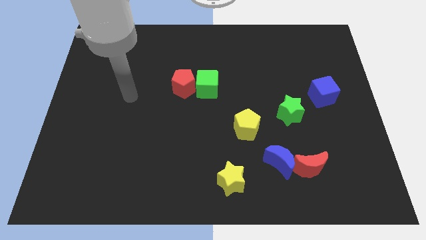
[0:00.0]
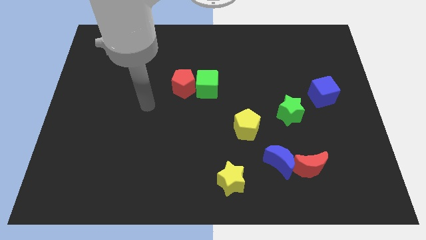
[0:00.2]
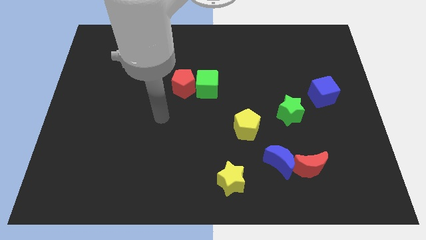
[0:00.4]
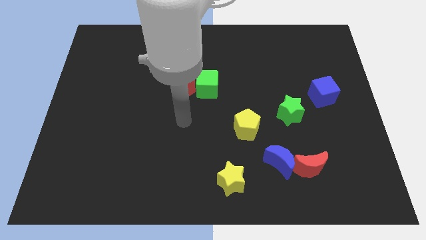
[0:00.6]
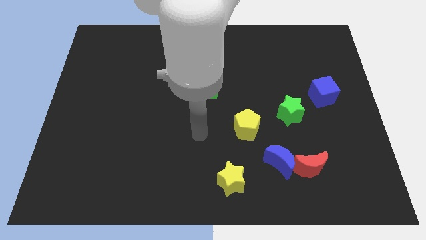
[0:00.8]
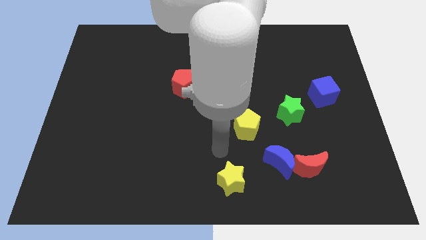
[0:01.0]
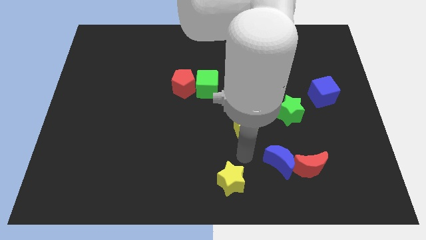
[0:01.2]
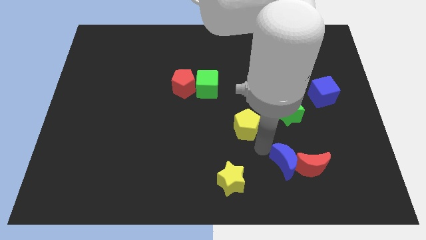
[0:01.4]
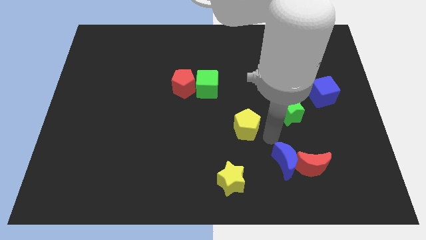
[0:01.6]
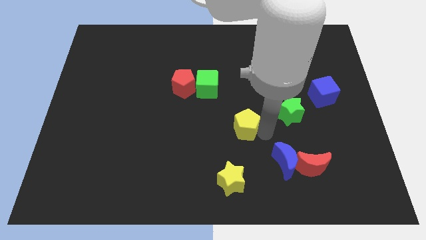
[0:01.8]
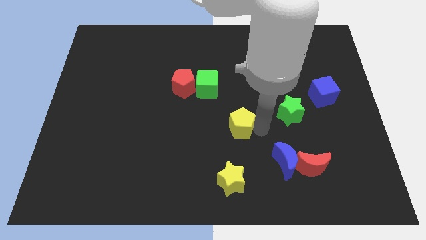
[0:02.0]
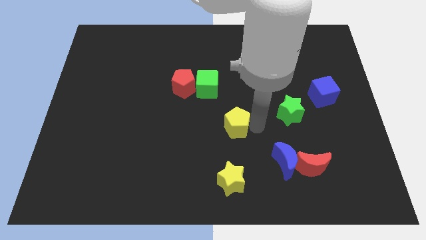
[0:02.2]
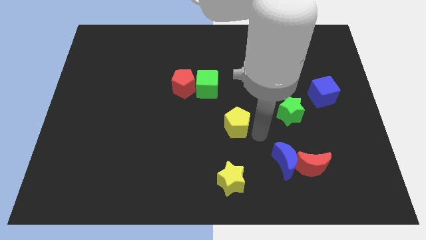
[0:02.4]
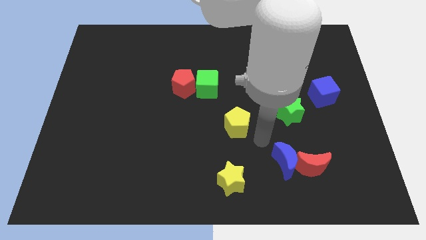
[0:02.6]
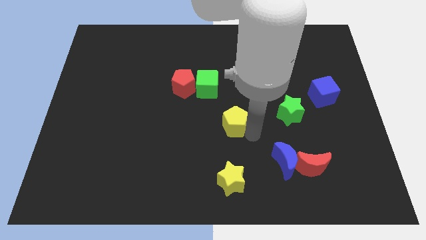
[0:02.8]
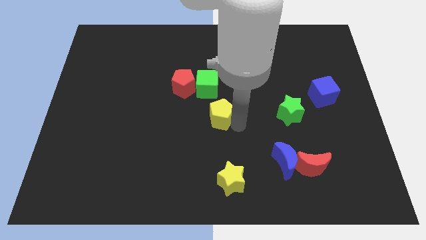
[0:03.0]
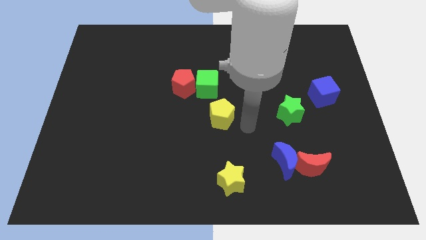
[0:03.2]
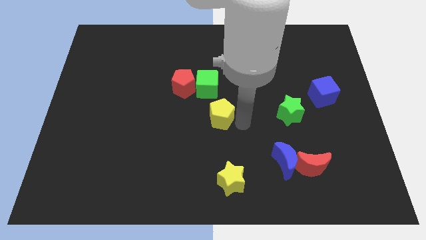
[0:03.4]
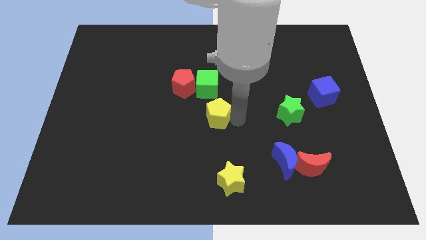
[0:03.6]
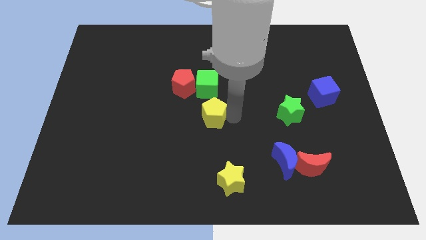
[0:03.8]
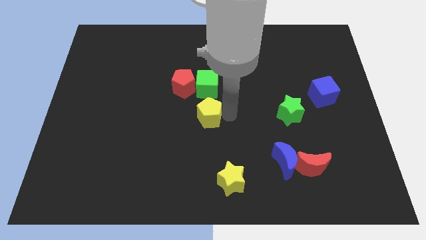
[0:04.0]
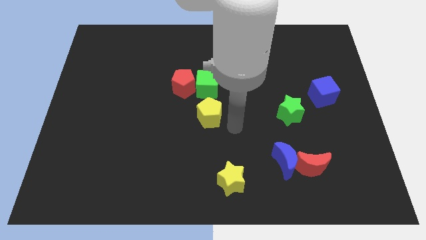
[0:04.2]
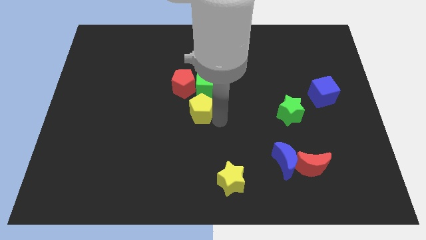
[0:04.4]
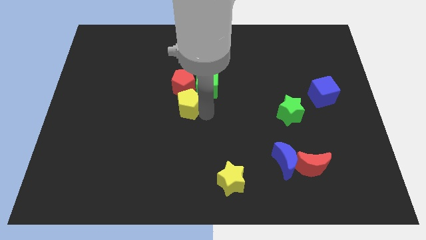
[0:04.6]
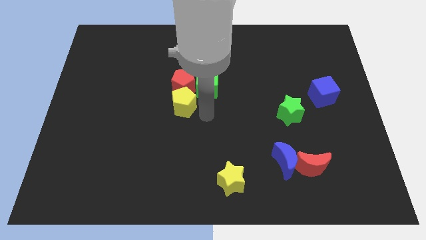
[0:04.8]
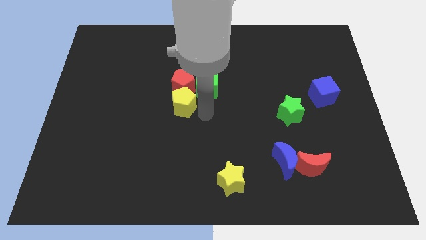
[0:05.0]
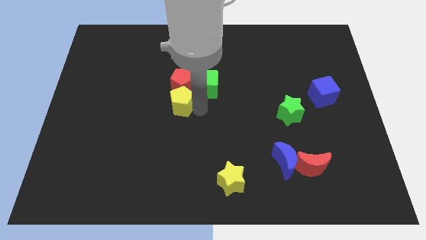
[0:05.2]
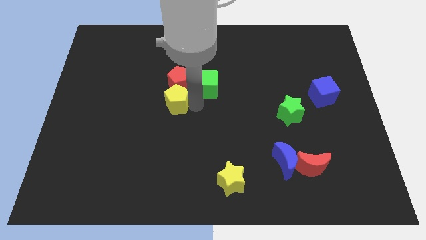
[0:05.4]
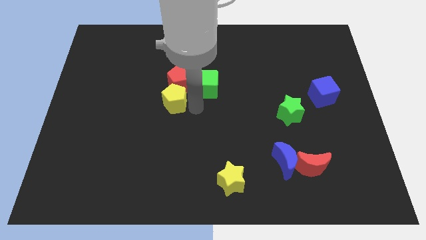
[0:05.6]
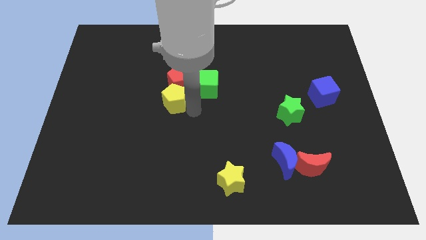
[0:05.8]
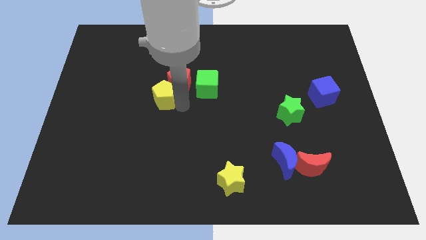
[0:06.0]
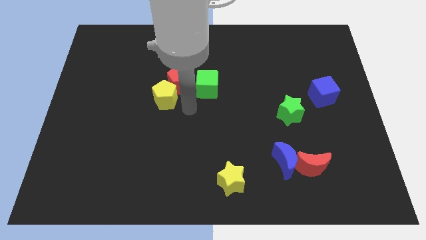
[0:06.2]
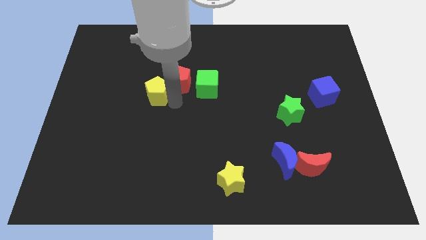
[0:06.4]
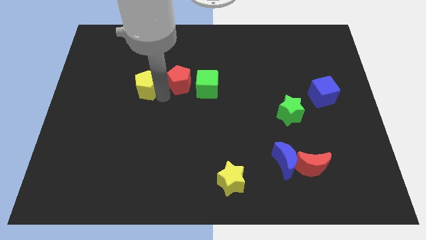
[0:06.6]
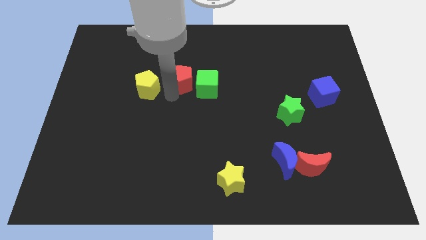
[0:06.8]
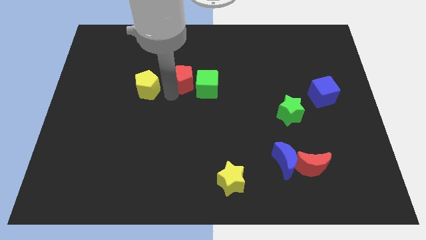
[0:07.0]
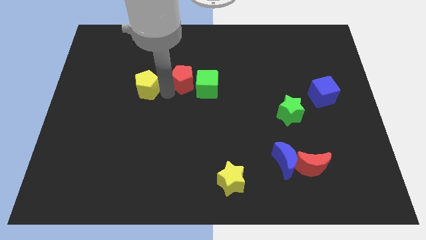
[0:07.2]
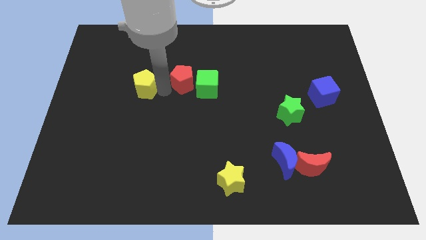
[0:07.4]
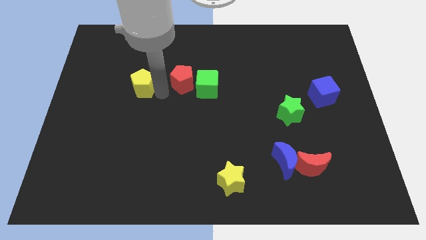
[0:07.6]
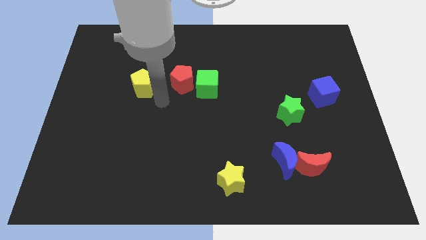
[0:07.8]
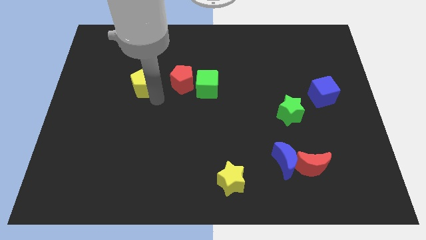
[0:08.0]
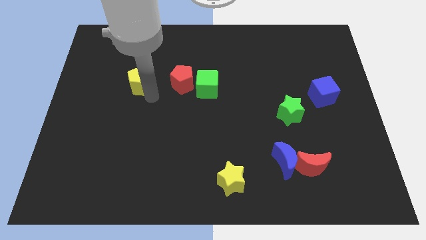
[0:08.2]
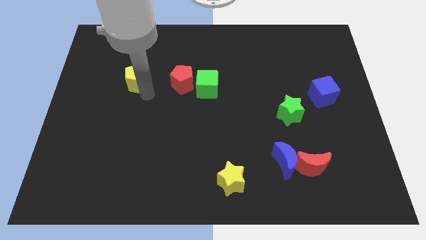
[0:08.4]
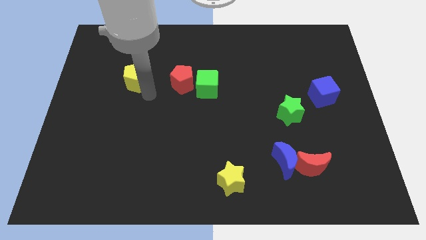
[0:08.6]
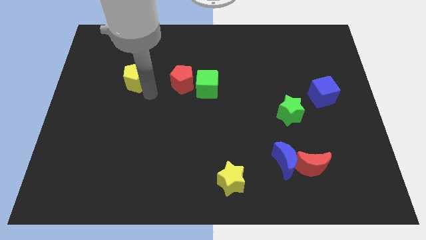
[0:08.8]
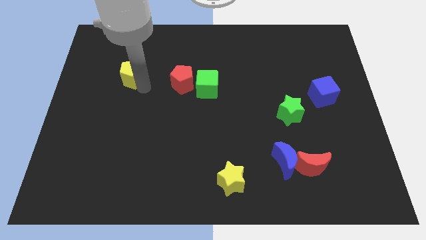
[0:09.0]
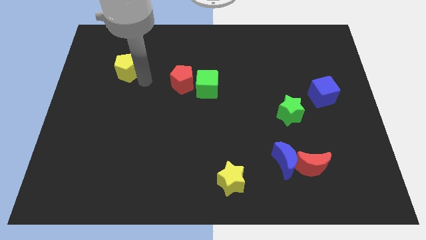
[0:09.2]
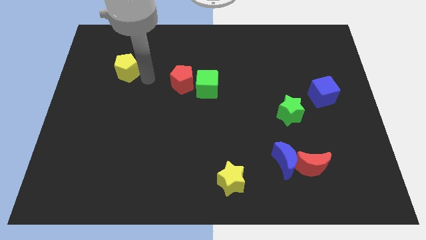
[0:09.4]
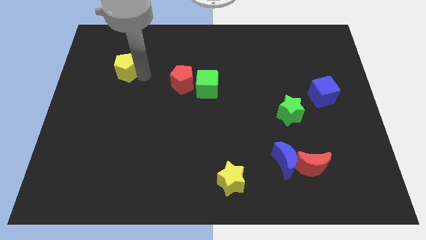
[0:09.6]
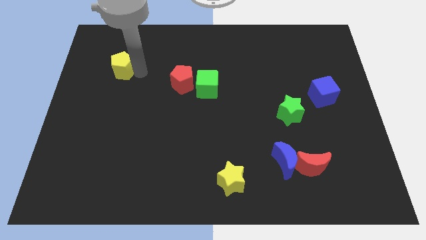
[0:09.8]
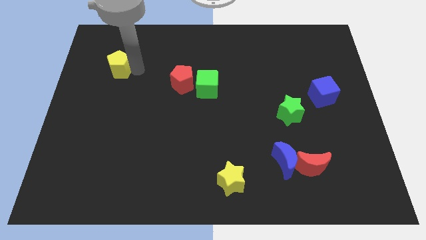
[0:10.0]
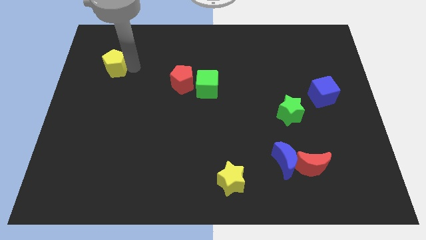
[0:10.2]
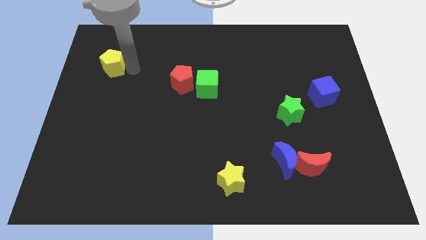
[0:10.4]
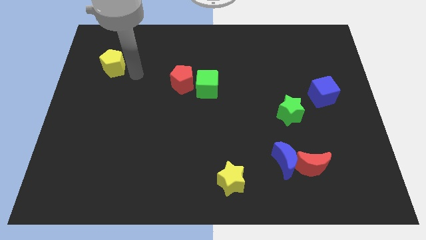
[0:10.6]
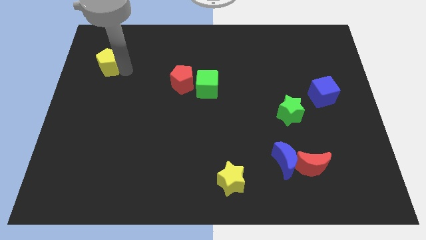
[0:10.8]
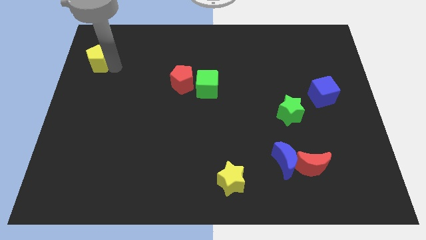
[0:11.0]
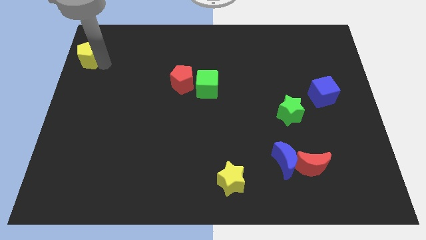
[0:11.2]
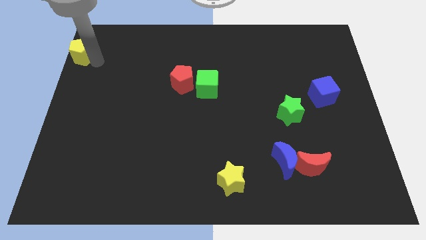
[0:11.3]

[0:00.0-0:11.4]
put the yellow pentagon to the upper left corner

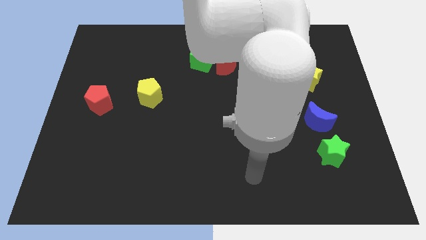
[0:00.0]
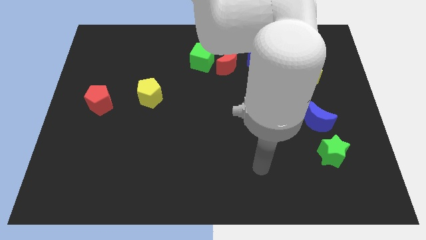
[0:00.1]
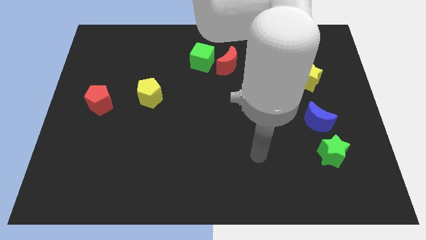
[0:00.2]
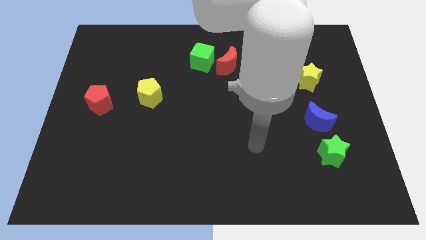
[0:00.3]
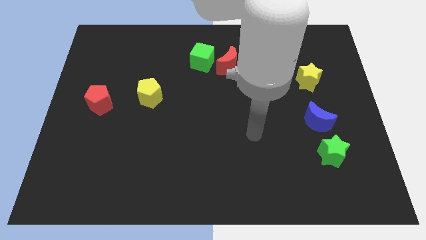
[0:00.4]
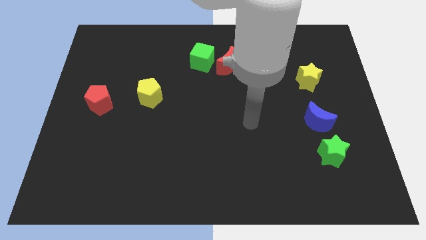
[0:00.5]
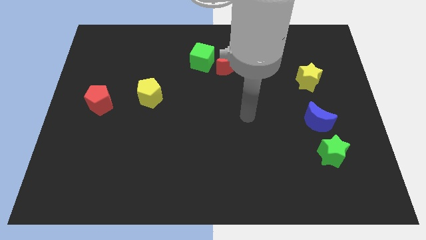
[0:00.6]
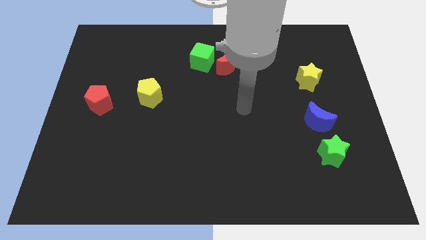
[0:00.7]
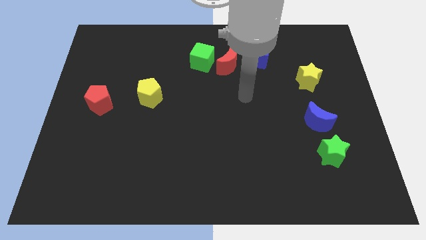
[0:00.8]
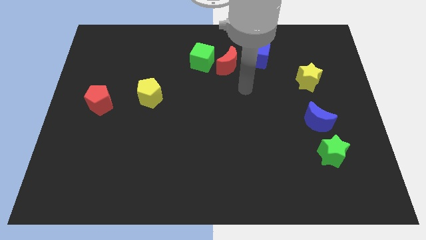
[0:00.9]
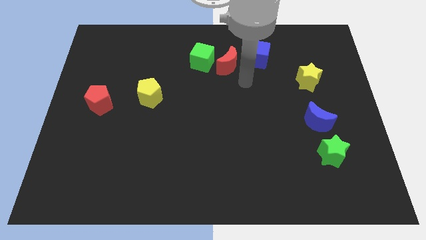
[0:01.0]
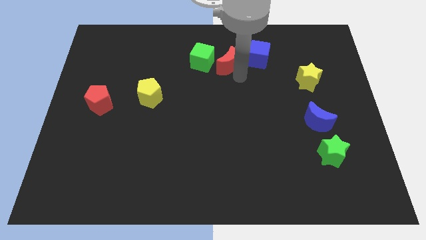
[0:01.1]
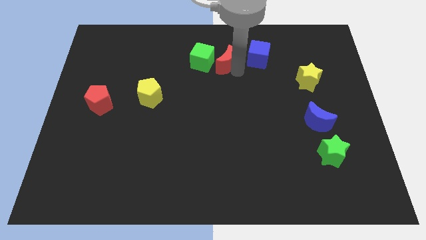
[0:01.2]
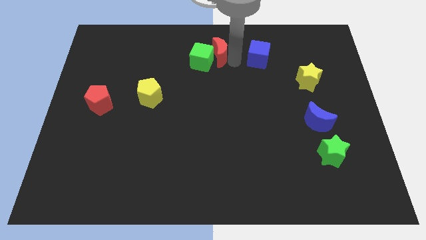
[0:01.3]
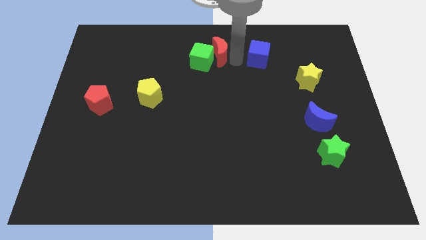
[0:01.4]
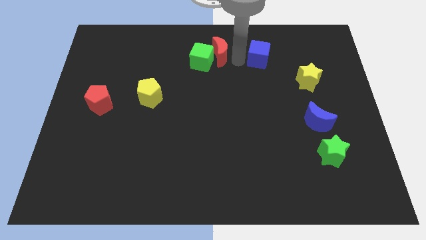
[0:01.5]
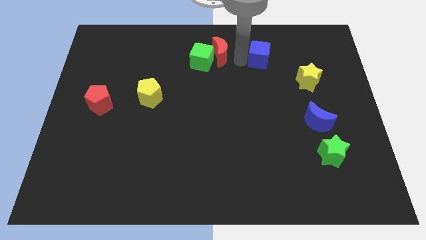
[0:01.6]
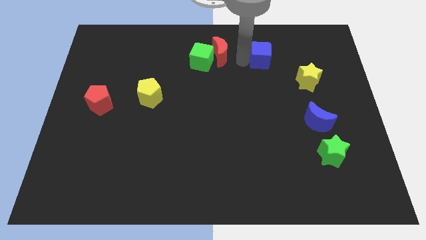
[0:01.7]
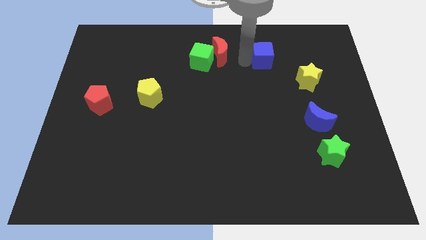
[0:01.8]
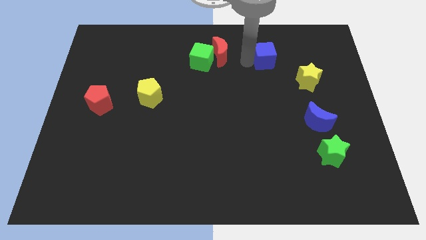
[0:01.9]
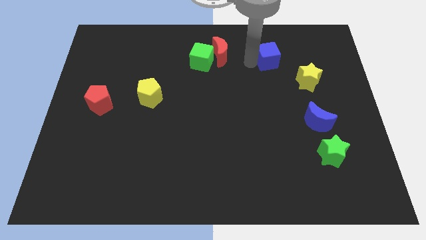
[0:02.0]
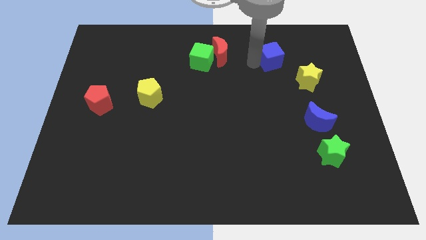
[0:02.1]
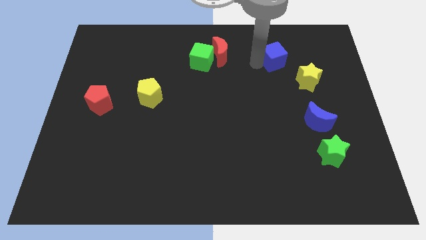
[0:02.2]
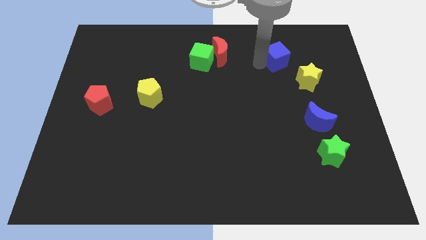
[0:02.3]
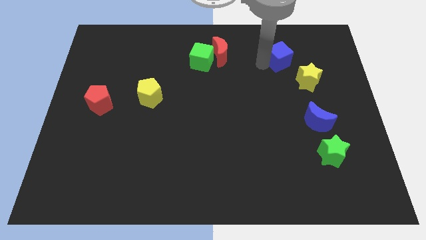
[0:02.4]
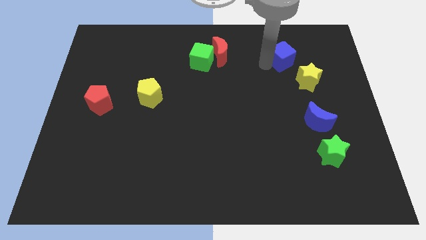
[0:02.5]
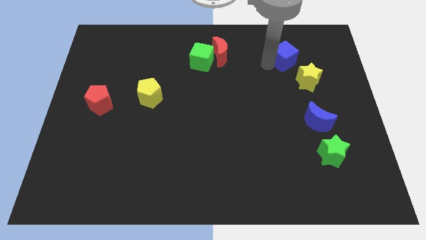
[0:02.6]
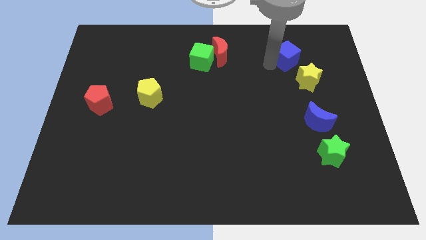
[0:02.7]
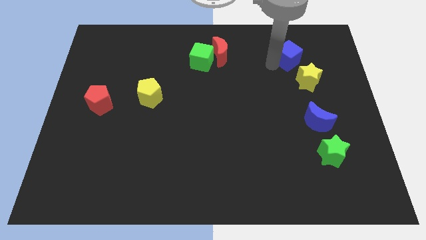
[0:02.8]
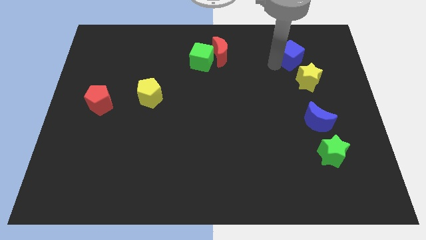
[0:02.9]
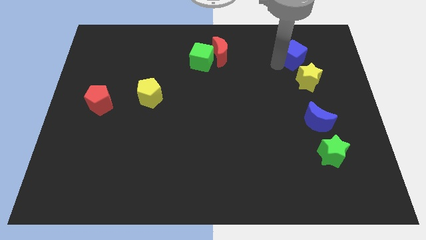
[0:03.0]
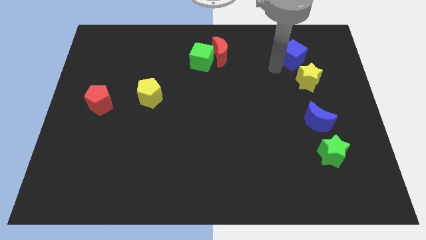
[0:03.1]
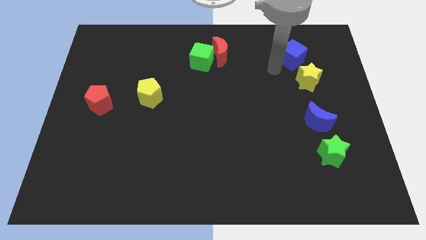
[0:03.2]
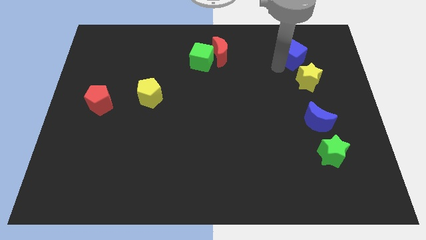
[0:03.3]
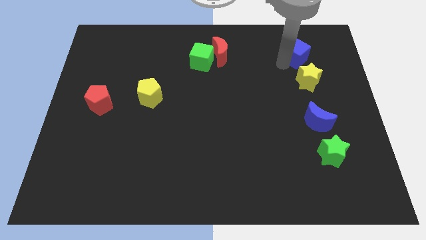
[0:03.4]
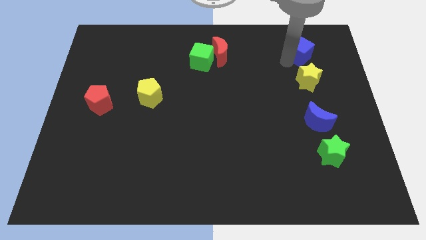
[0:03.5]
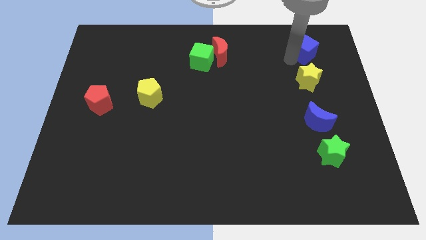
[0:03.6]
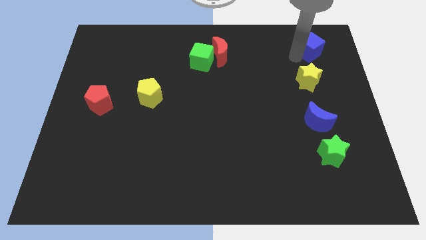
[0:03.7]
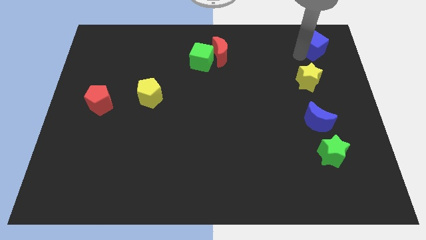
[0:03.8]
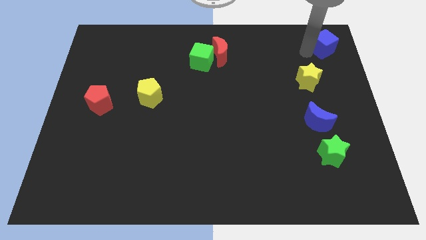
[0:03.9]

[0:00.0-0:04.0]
move the blue cube to the top right corner
